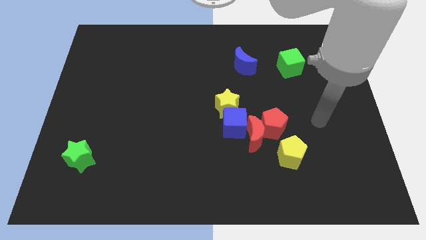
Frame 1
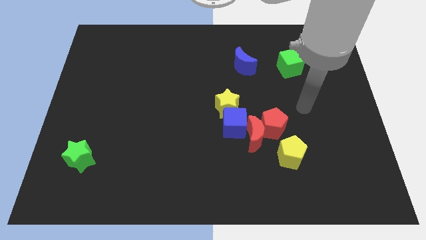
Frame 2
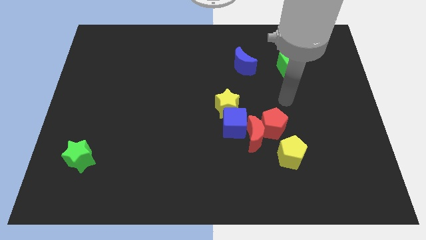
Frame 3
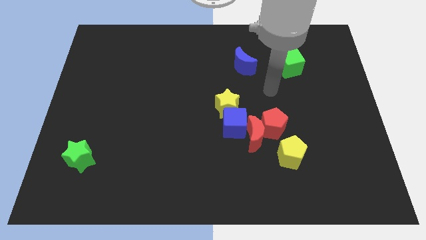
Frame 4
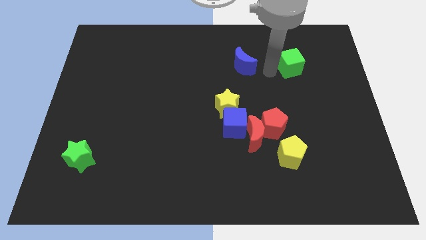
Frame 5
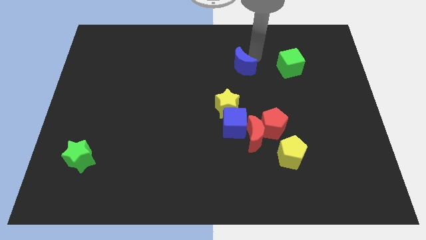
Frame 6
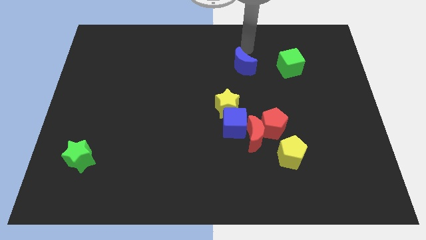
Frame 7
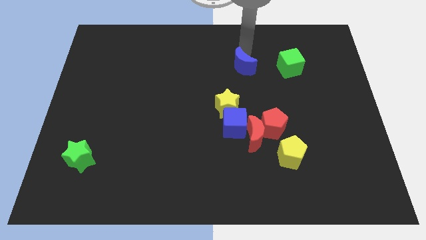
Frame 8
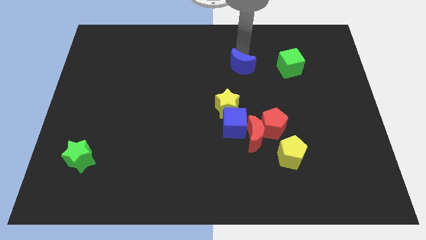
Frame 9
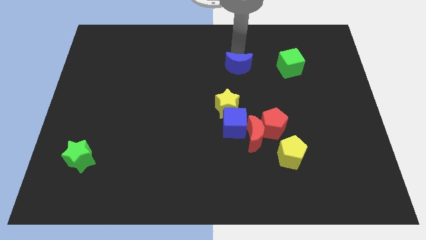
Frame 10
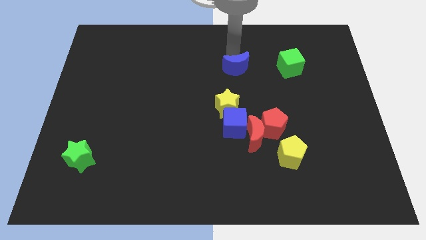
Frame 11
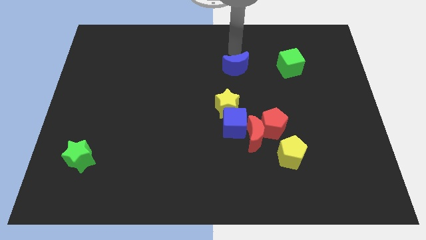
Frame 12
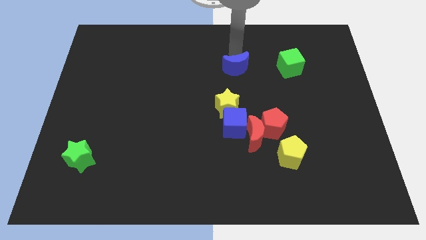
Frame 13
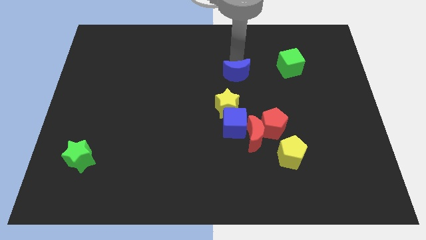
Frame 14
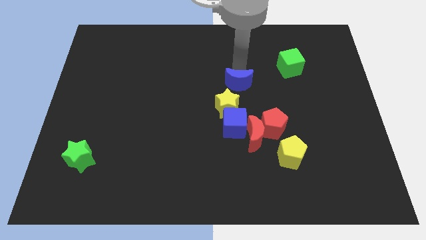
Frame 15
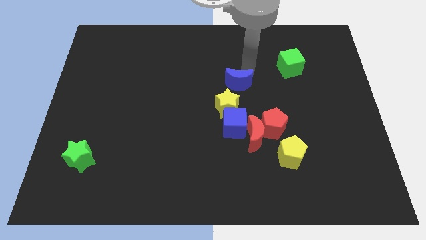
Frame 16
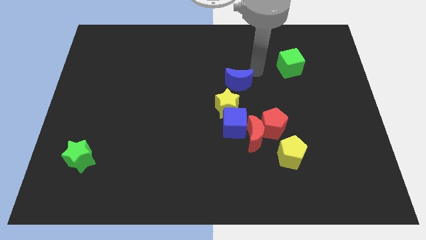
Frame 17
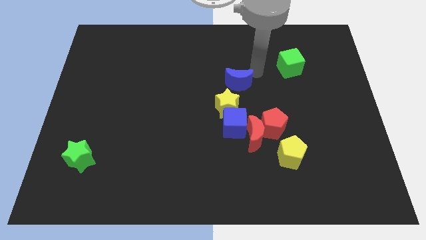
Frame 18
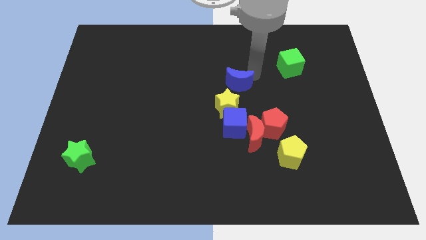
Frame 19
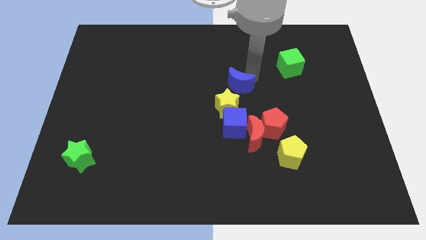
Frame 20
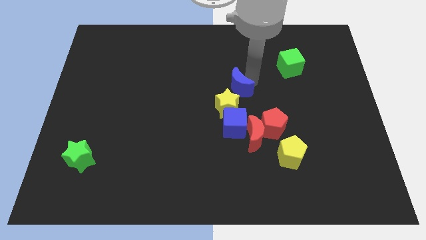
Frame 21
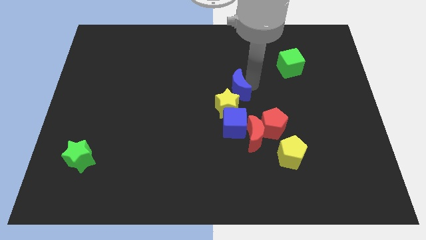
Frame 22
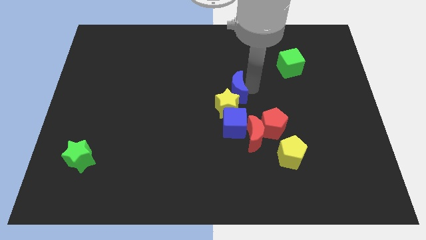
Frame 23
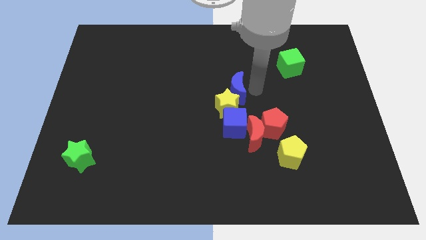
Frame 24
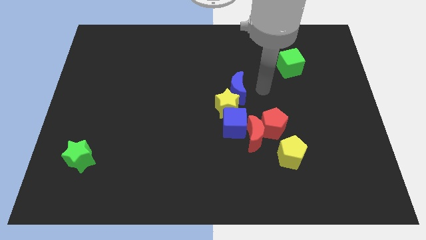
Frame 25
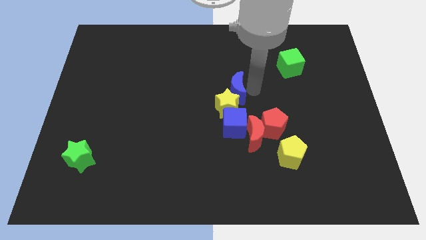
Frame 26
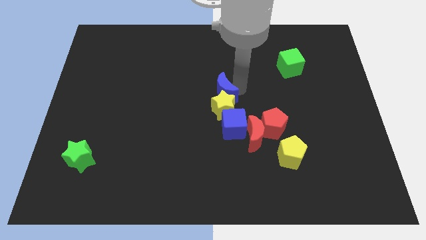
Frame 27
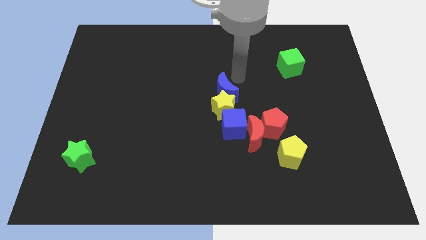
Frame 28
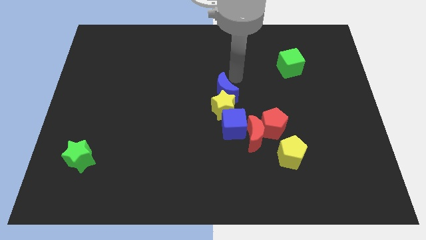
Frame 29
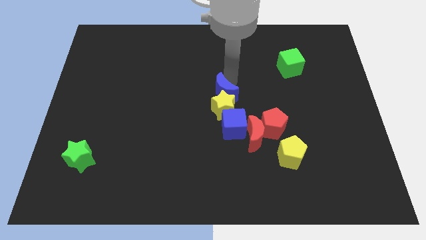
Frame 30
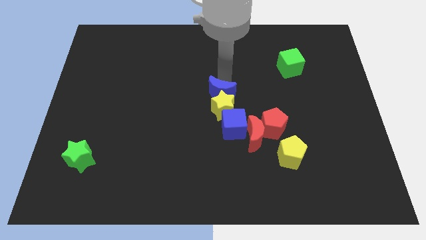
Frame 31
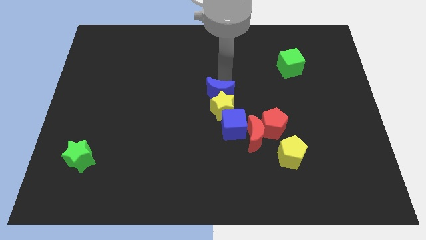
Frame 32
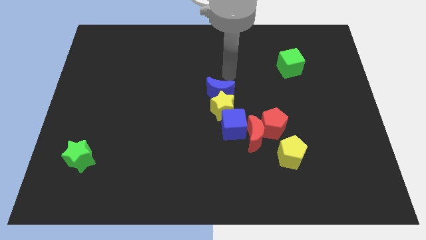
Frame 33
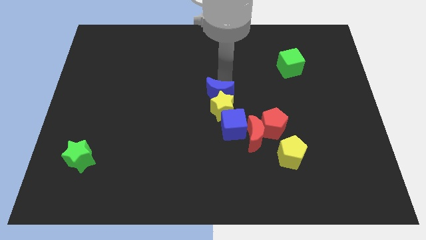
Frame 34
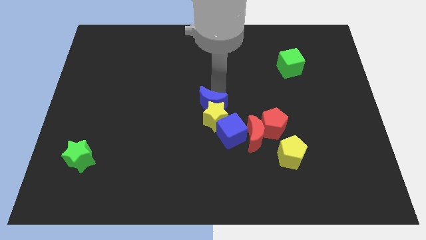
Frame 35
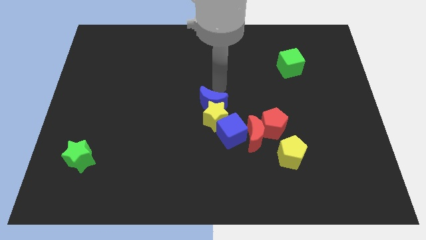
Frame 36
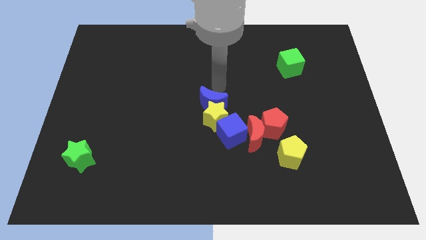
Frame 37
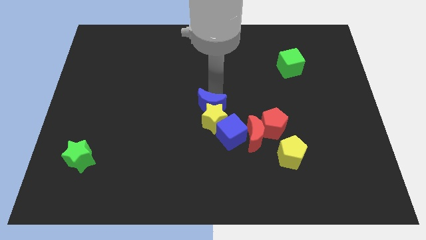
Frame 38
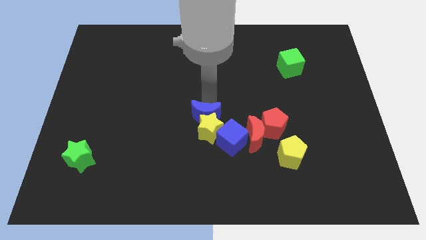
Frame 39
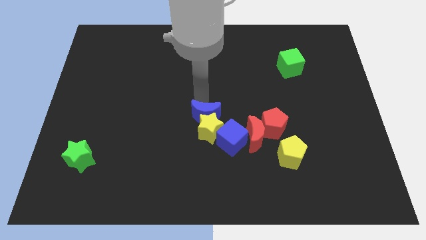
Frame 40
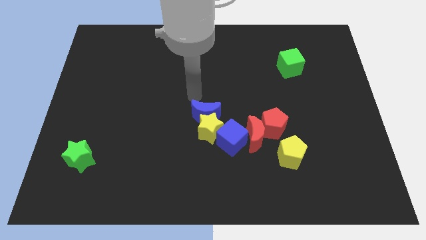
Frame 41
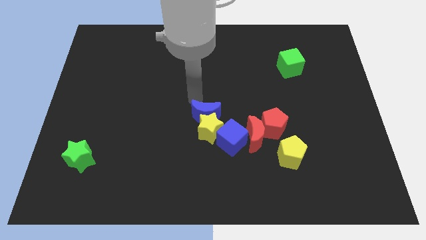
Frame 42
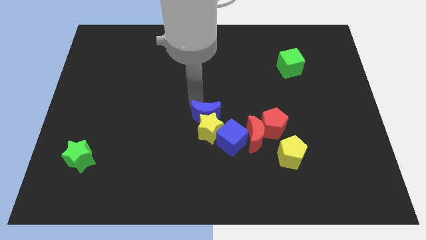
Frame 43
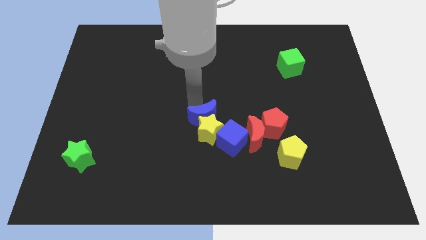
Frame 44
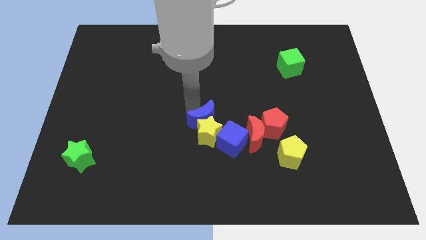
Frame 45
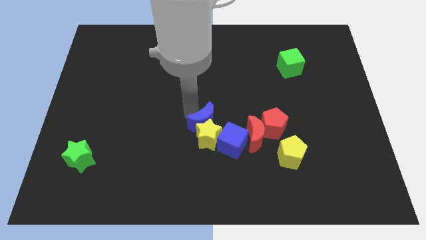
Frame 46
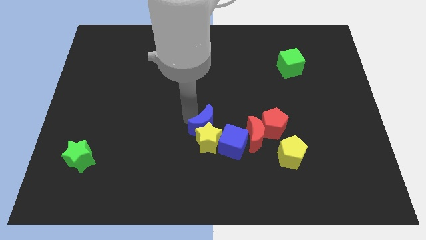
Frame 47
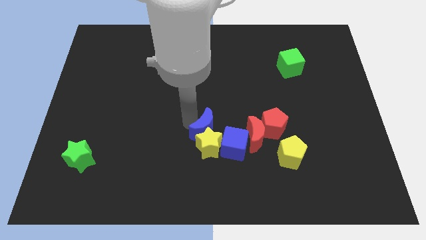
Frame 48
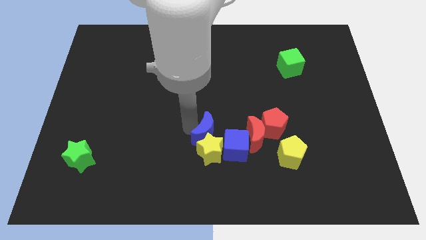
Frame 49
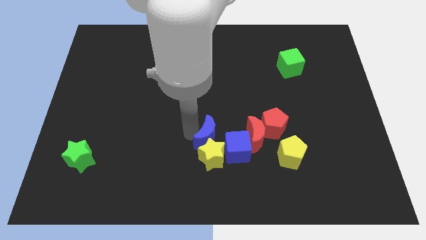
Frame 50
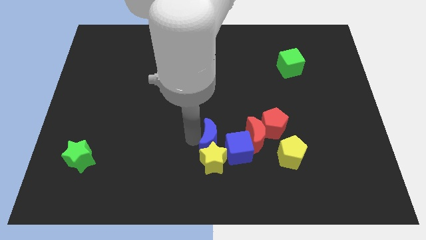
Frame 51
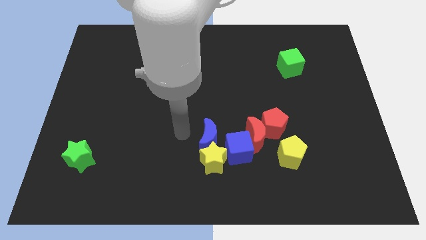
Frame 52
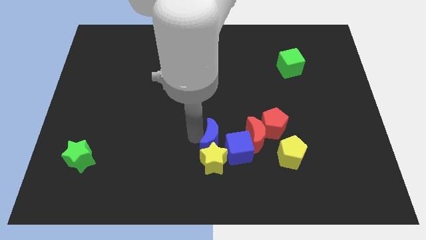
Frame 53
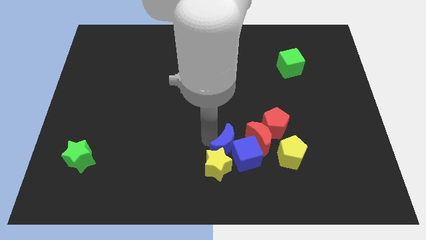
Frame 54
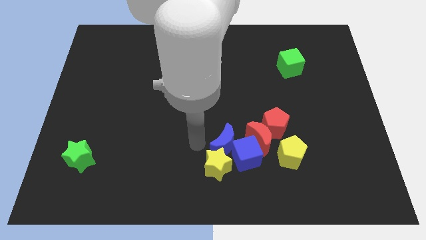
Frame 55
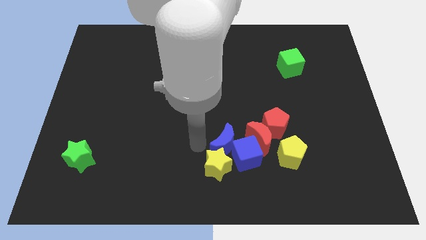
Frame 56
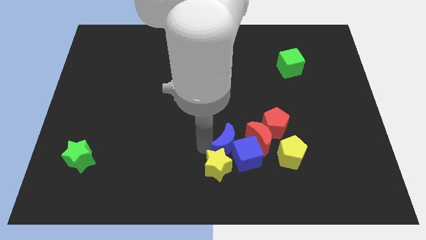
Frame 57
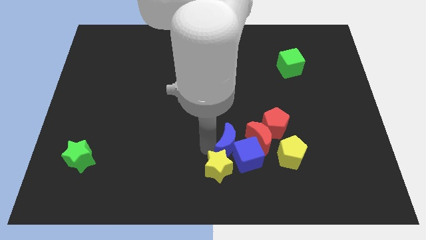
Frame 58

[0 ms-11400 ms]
move the blue moon diagonally down and to the left of the red pentagon

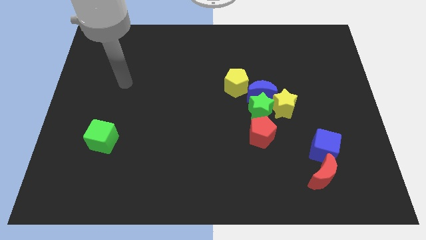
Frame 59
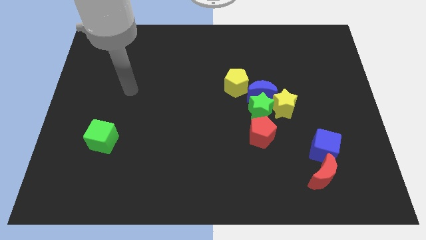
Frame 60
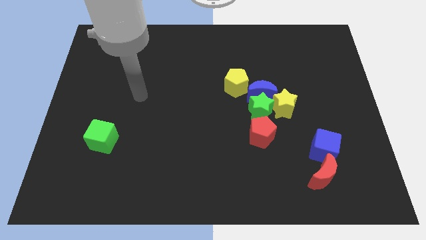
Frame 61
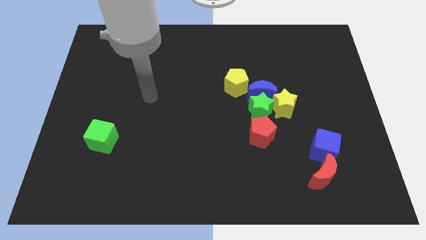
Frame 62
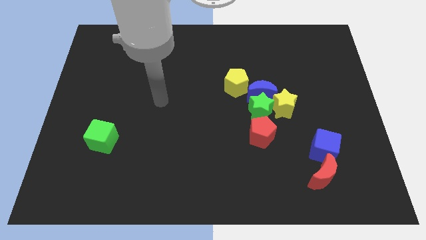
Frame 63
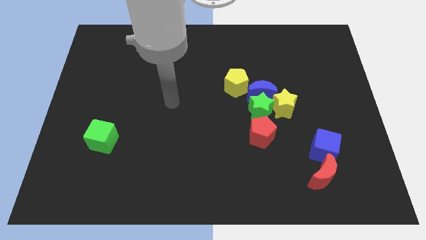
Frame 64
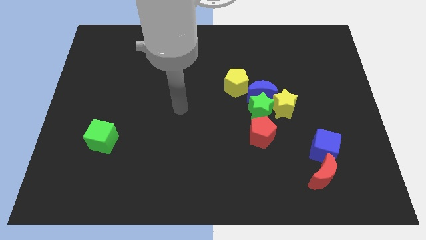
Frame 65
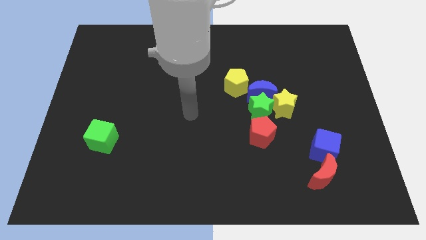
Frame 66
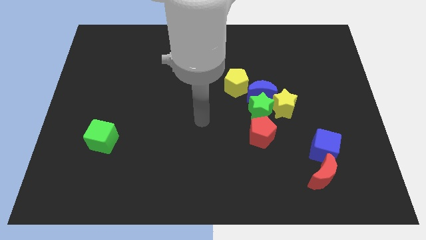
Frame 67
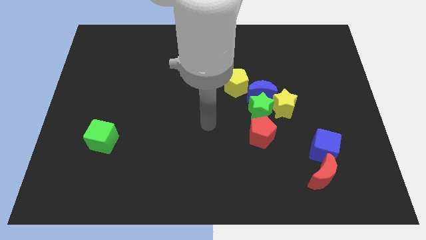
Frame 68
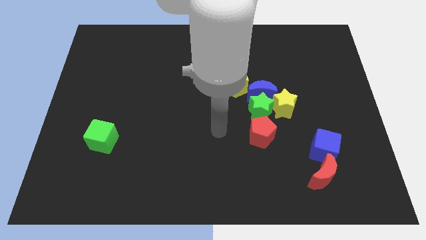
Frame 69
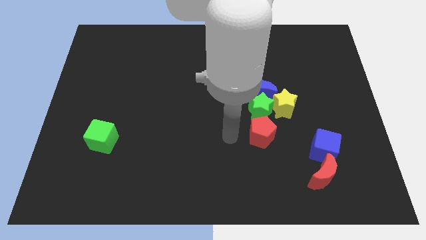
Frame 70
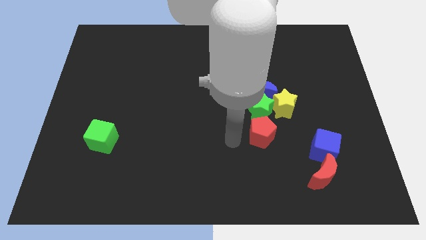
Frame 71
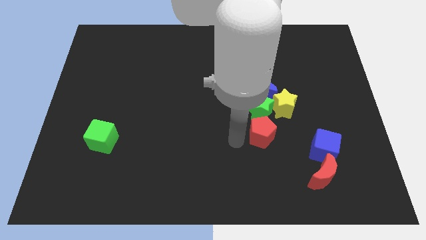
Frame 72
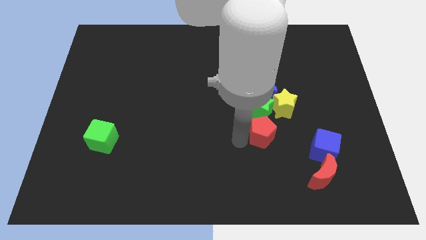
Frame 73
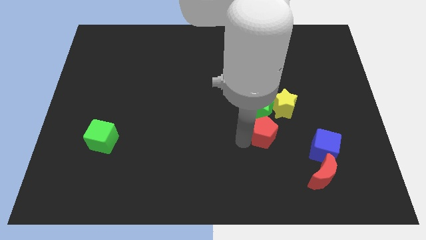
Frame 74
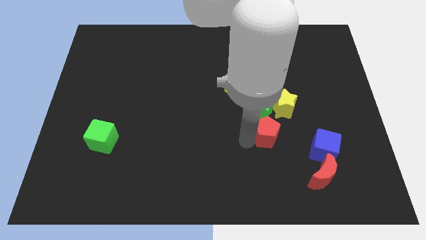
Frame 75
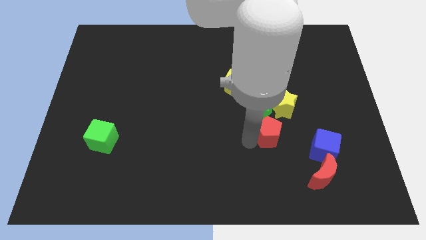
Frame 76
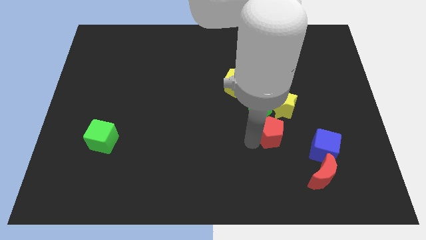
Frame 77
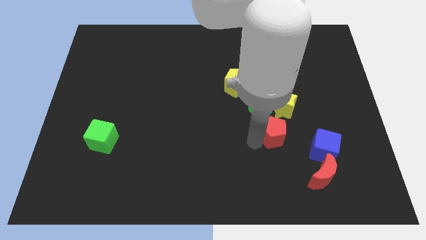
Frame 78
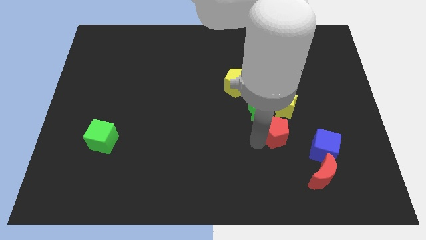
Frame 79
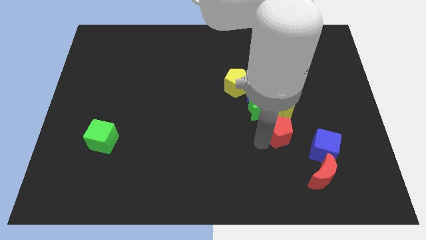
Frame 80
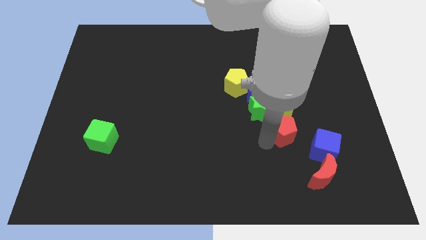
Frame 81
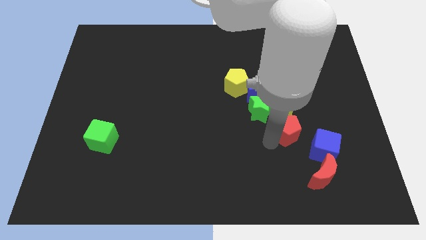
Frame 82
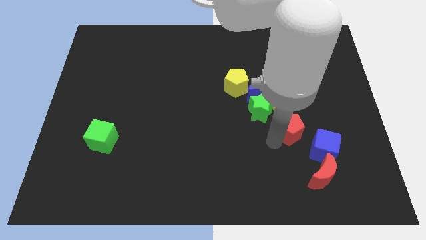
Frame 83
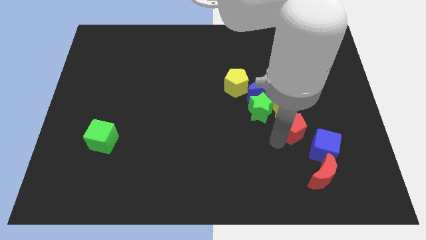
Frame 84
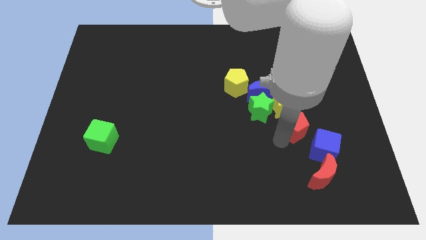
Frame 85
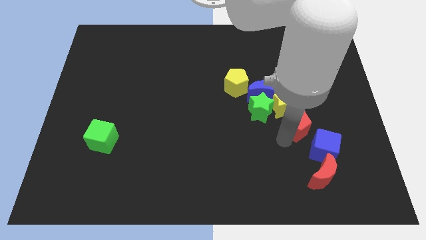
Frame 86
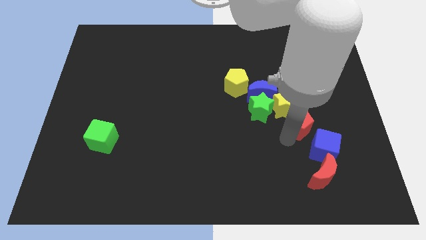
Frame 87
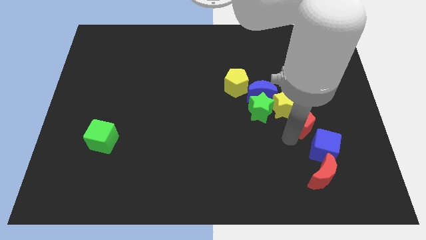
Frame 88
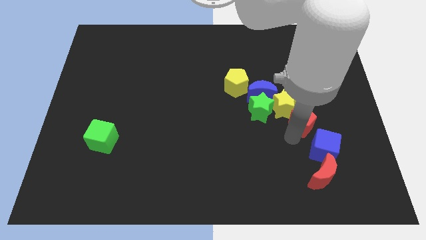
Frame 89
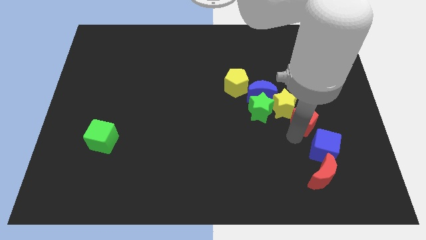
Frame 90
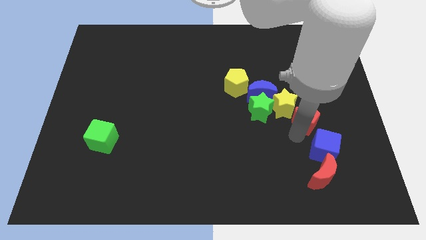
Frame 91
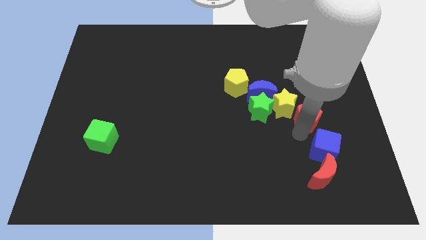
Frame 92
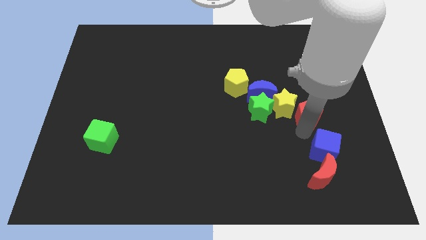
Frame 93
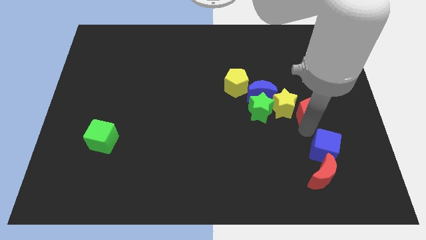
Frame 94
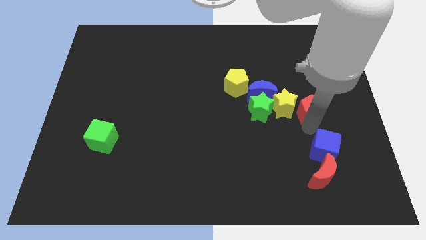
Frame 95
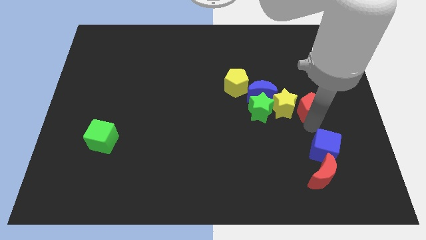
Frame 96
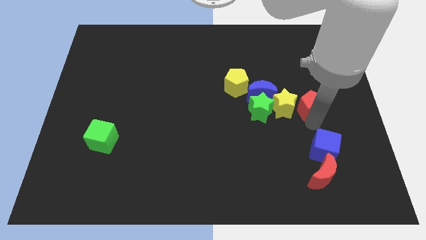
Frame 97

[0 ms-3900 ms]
move the red pentagon diagonally up and to the right of the yellow star
